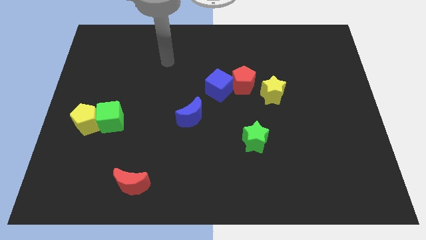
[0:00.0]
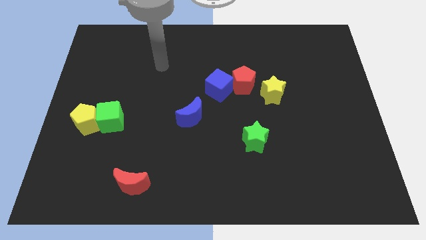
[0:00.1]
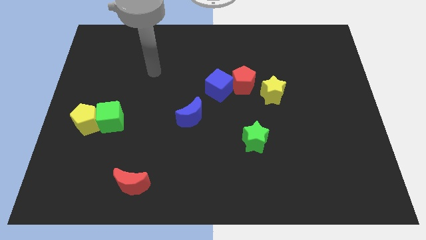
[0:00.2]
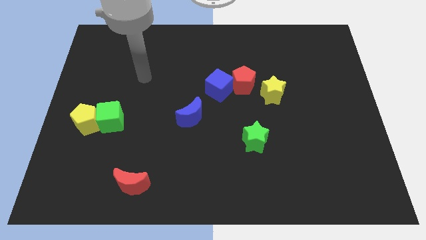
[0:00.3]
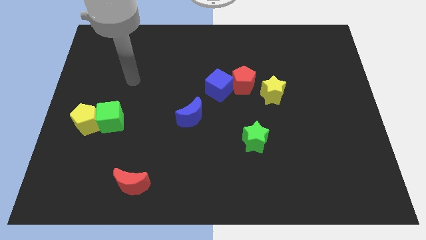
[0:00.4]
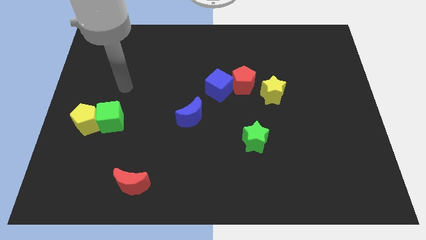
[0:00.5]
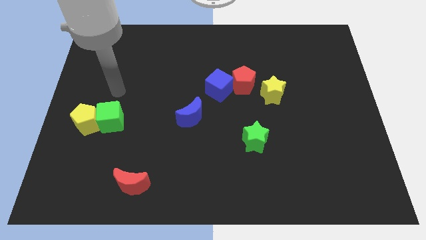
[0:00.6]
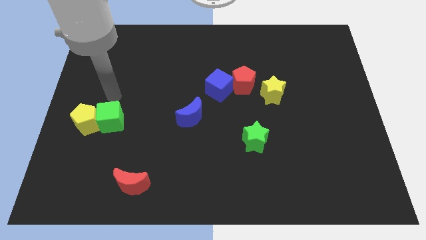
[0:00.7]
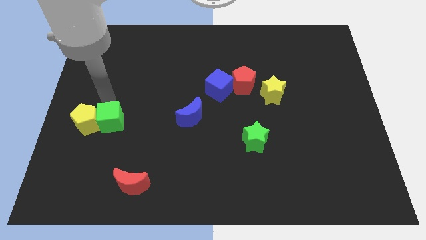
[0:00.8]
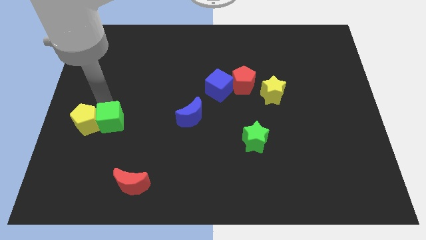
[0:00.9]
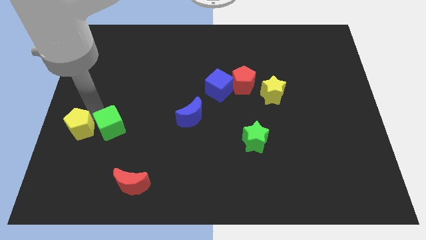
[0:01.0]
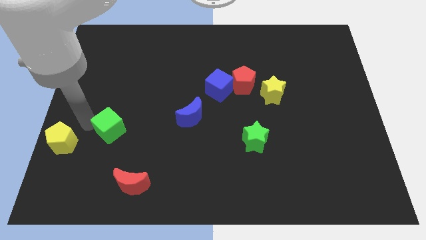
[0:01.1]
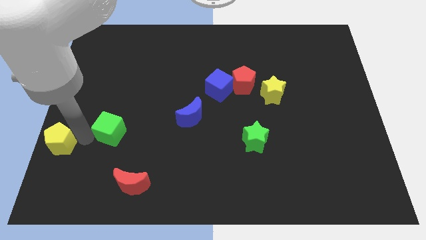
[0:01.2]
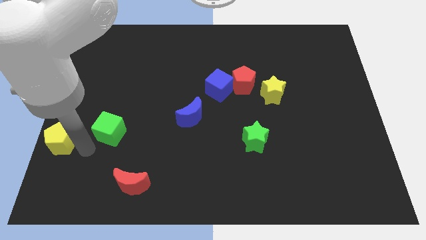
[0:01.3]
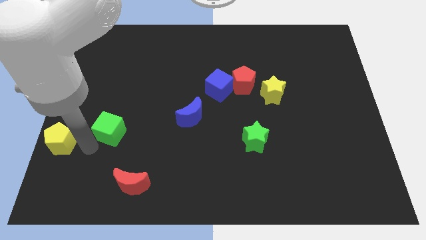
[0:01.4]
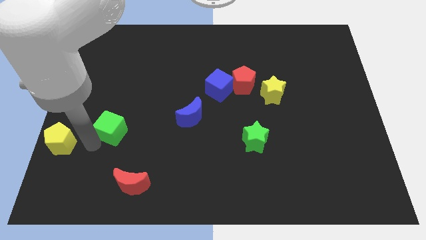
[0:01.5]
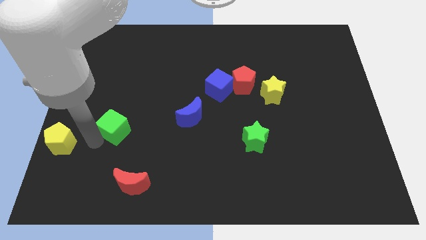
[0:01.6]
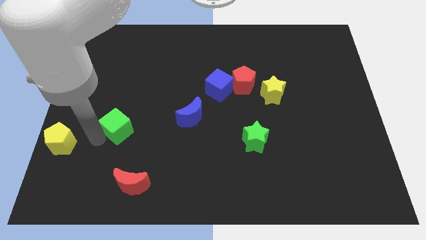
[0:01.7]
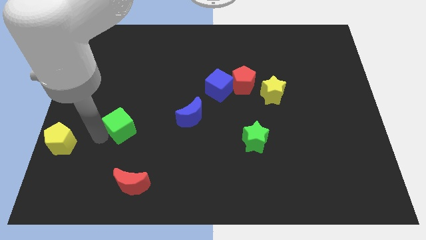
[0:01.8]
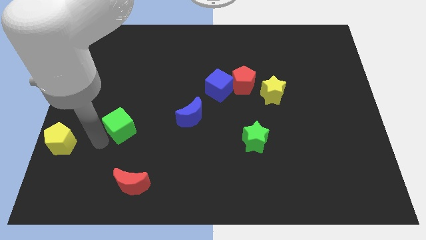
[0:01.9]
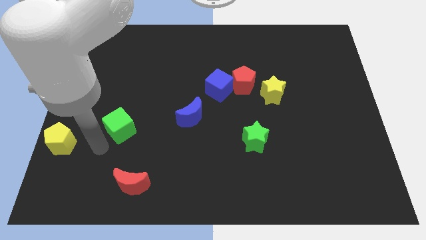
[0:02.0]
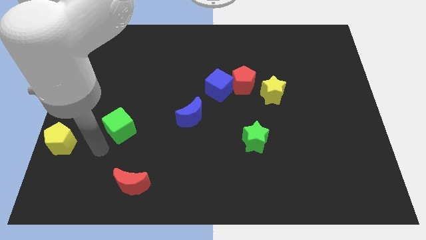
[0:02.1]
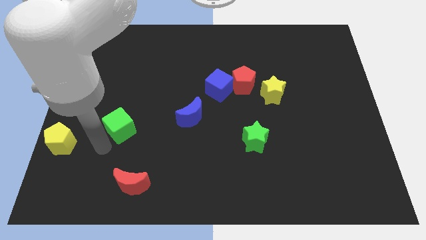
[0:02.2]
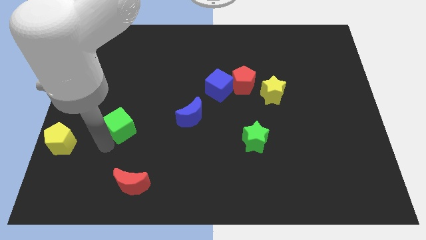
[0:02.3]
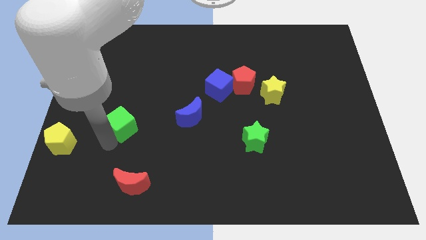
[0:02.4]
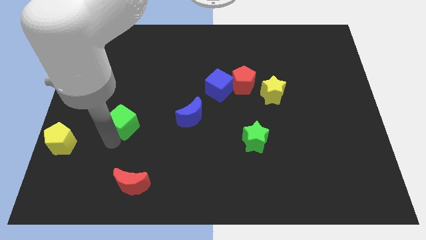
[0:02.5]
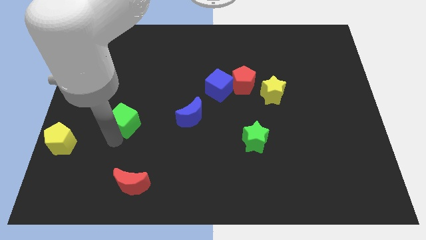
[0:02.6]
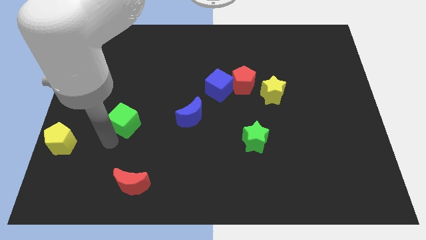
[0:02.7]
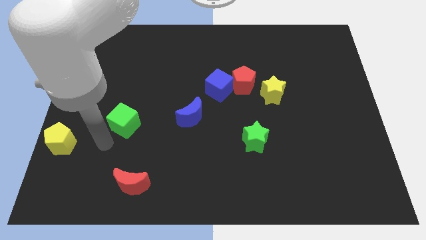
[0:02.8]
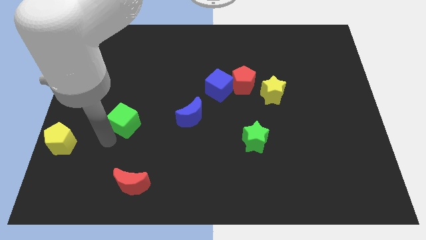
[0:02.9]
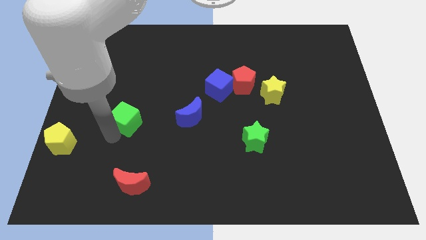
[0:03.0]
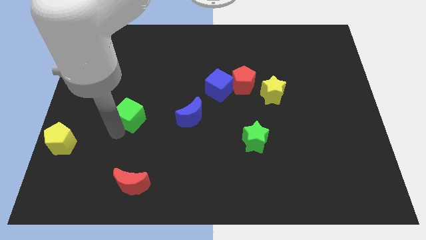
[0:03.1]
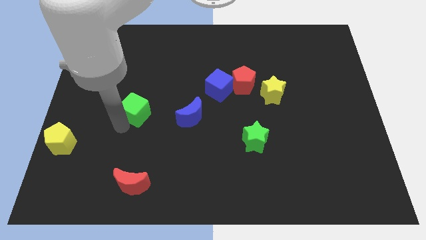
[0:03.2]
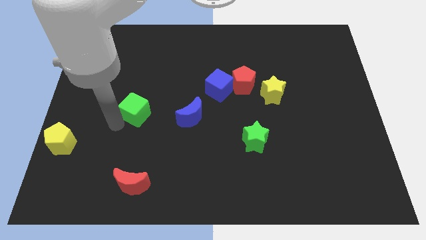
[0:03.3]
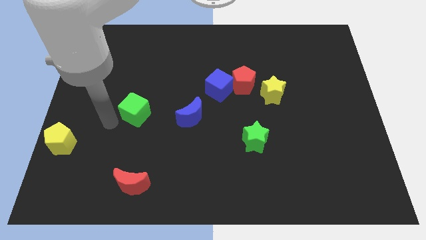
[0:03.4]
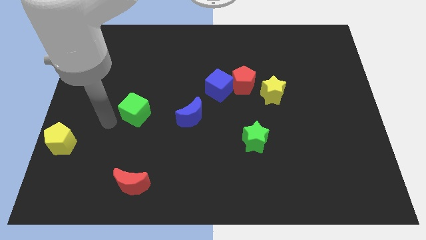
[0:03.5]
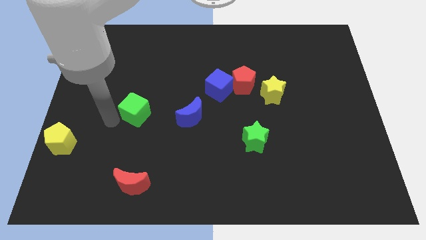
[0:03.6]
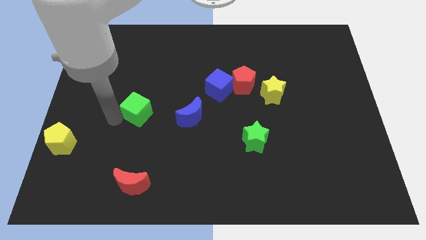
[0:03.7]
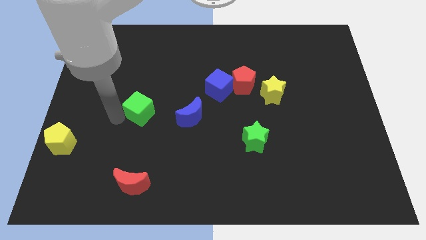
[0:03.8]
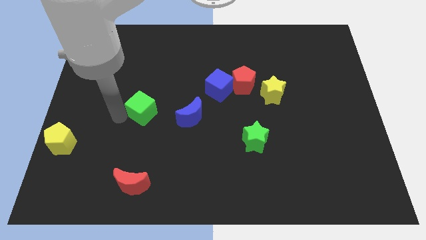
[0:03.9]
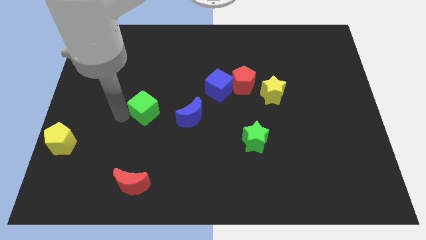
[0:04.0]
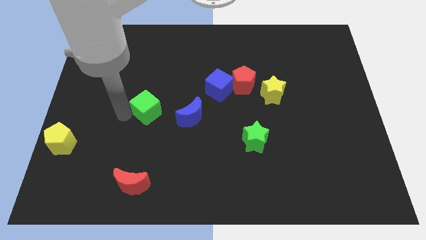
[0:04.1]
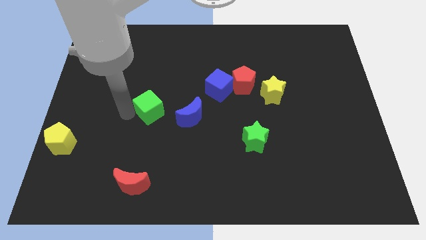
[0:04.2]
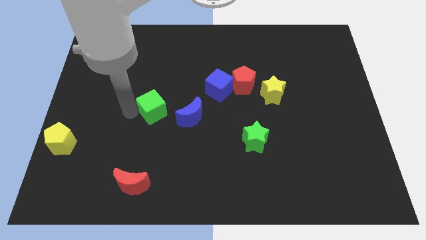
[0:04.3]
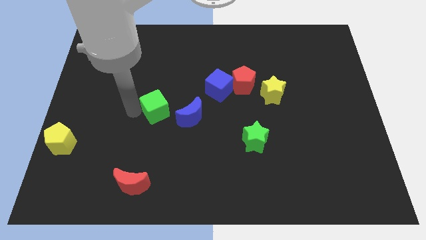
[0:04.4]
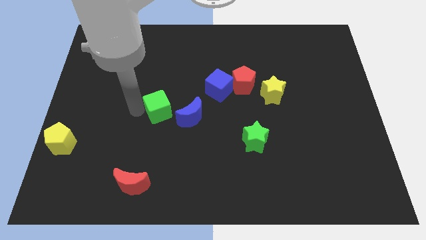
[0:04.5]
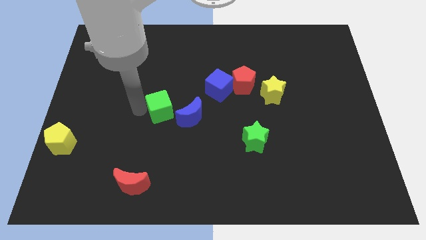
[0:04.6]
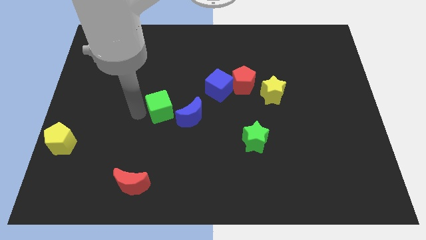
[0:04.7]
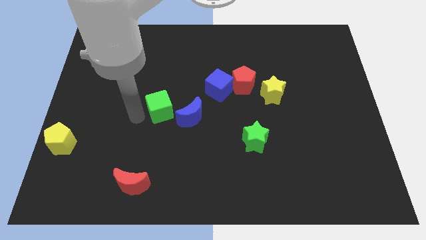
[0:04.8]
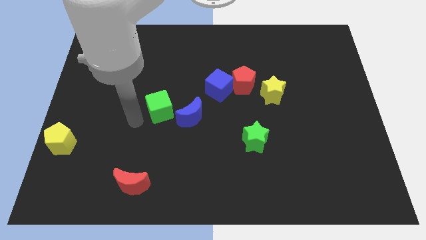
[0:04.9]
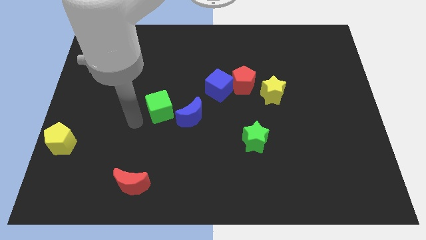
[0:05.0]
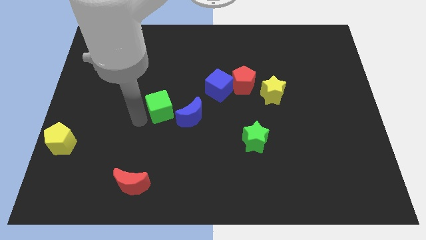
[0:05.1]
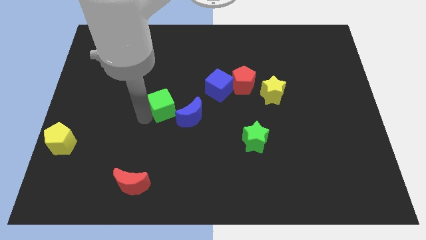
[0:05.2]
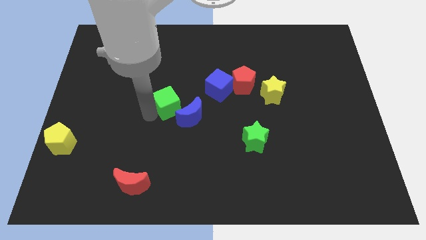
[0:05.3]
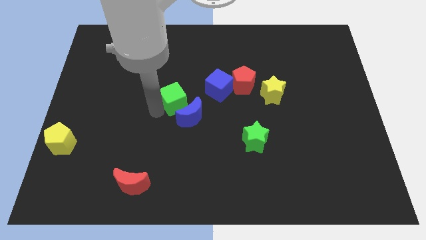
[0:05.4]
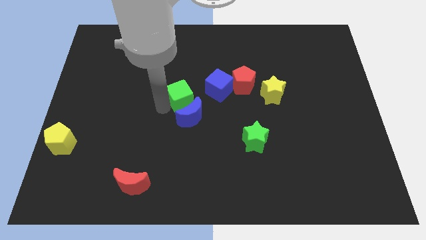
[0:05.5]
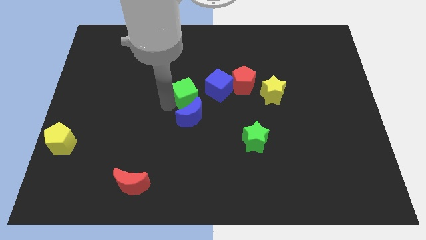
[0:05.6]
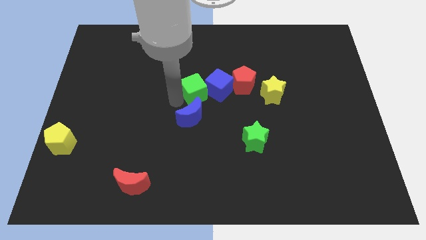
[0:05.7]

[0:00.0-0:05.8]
push the green cube towards the blue cube

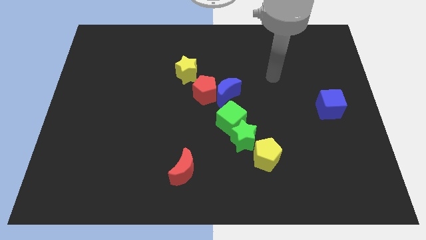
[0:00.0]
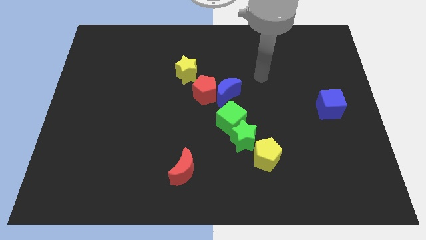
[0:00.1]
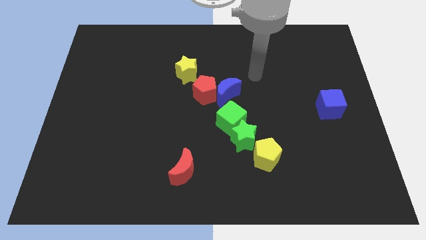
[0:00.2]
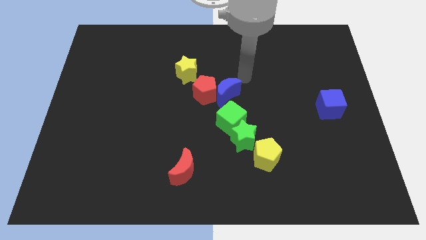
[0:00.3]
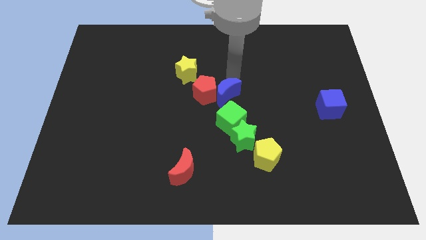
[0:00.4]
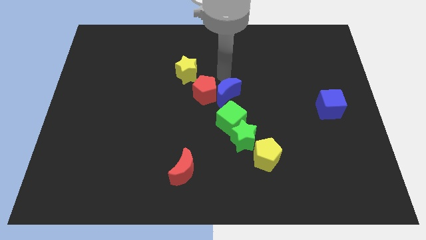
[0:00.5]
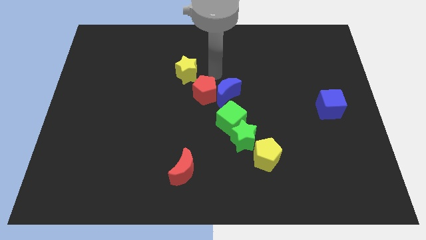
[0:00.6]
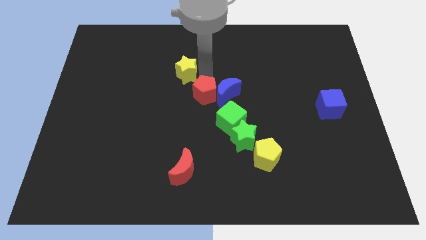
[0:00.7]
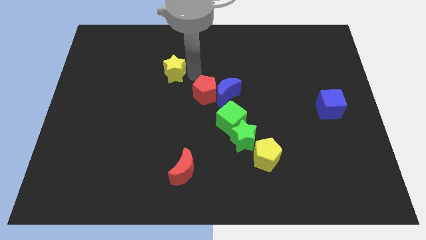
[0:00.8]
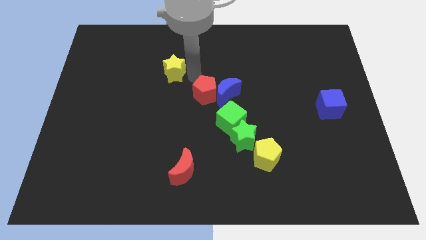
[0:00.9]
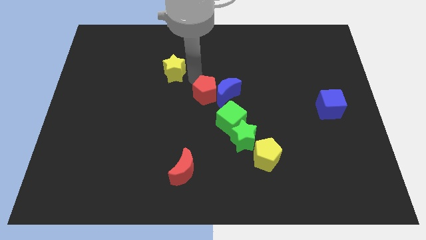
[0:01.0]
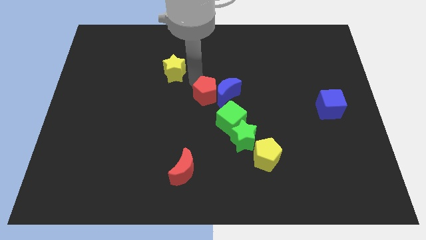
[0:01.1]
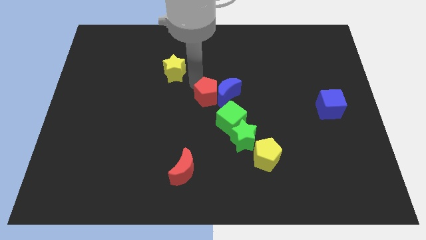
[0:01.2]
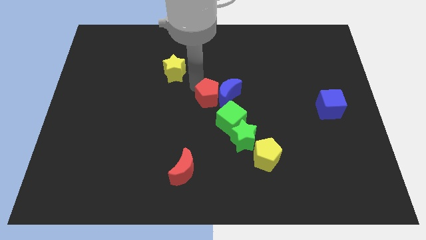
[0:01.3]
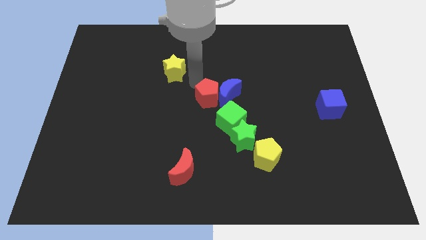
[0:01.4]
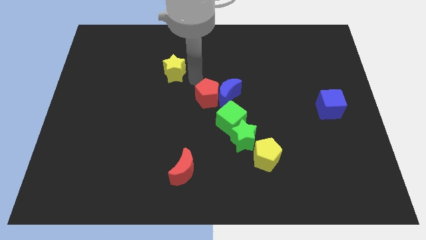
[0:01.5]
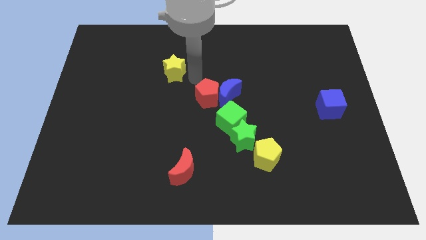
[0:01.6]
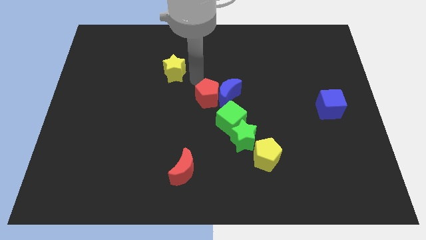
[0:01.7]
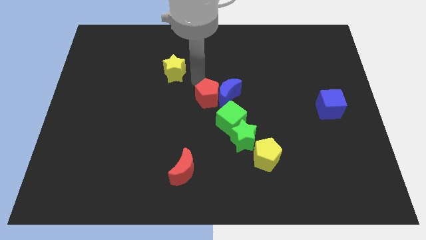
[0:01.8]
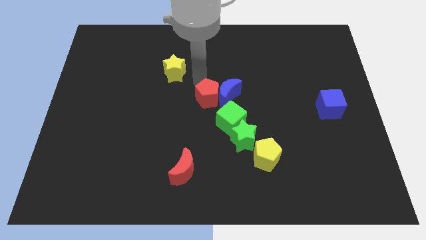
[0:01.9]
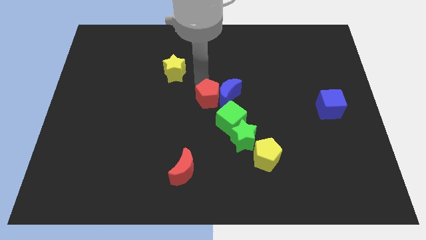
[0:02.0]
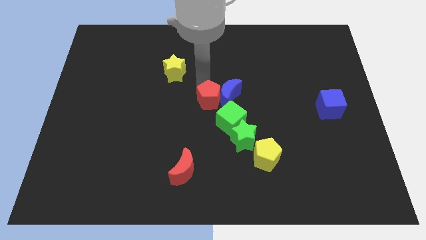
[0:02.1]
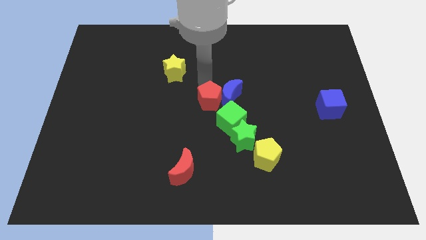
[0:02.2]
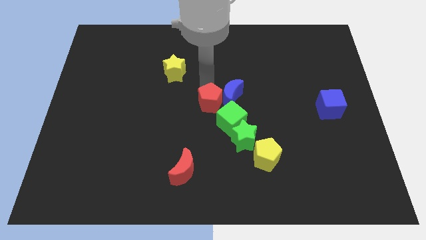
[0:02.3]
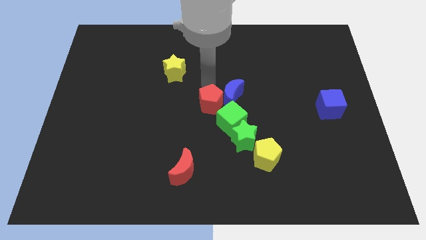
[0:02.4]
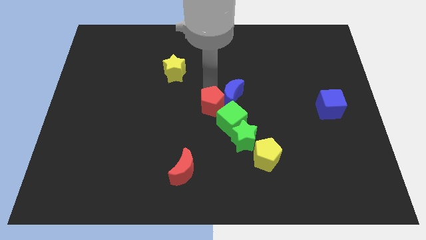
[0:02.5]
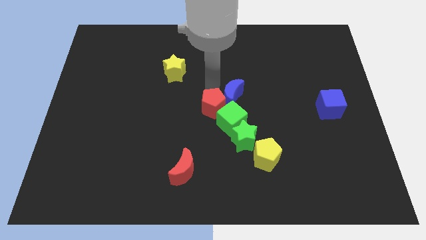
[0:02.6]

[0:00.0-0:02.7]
put the red pentagon towards the green cube
